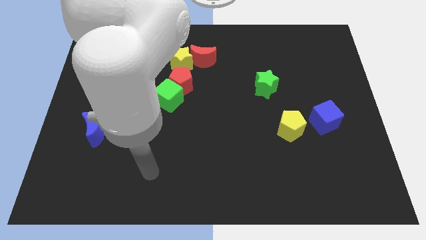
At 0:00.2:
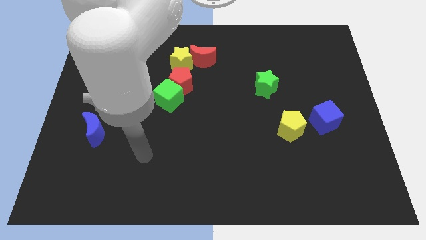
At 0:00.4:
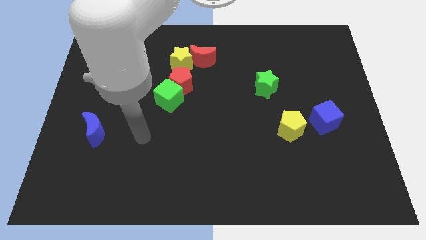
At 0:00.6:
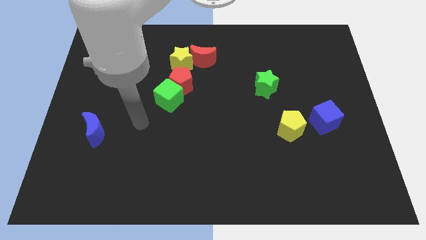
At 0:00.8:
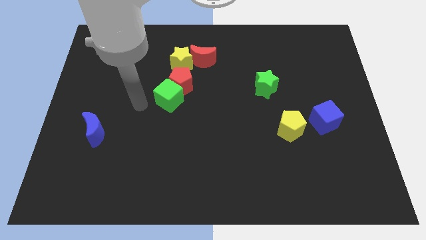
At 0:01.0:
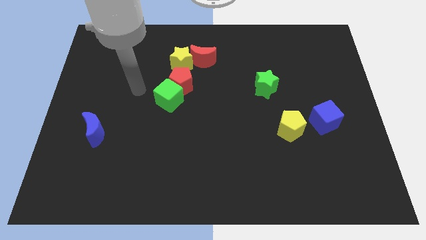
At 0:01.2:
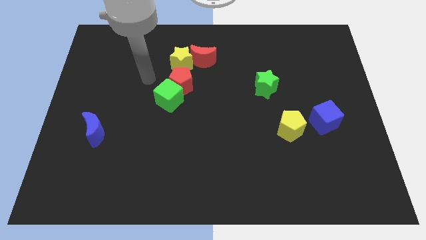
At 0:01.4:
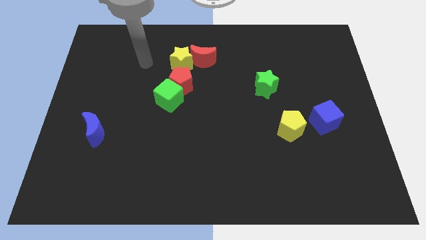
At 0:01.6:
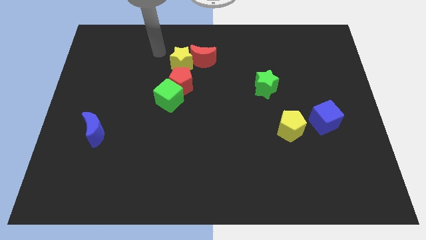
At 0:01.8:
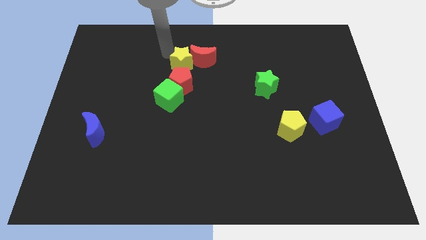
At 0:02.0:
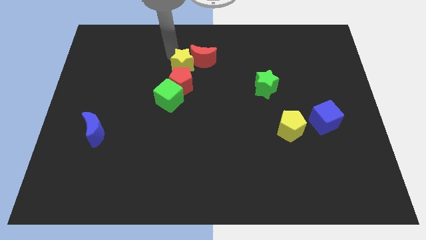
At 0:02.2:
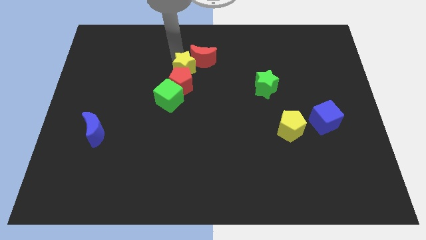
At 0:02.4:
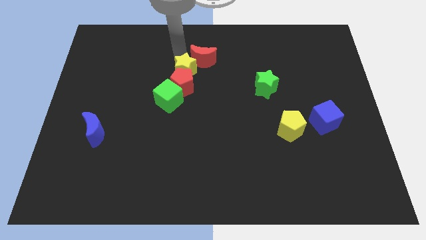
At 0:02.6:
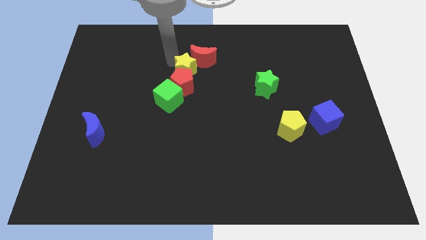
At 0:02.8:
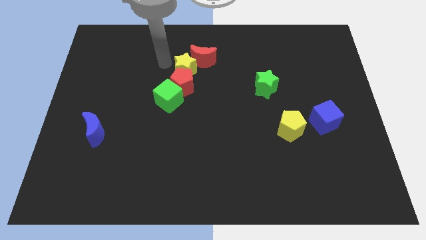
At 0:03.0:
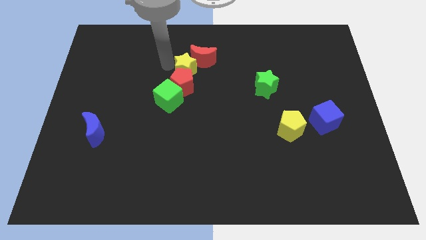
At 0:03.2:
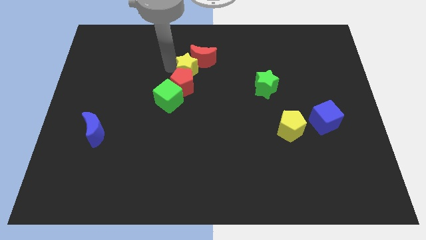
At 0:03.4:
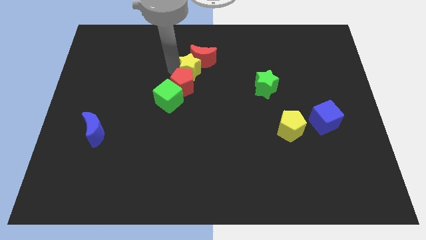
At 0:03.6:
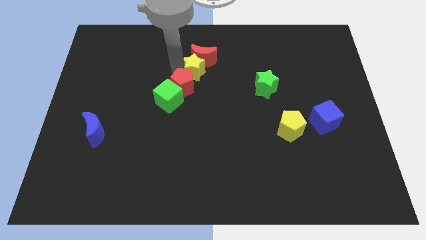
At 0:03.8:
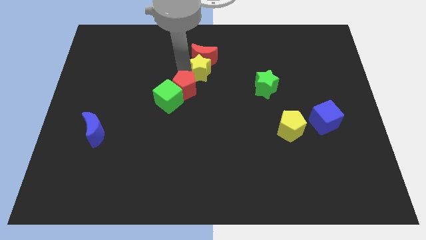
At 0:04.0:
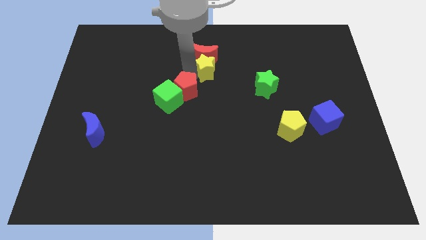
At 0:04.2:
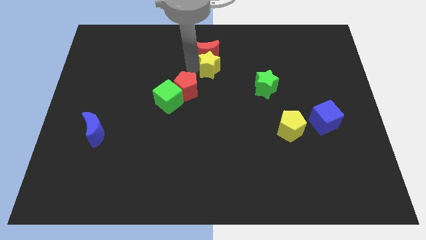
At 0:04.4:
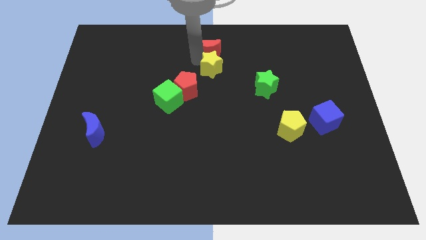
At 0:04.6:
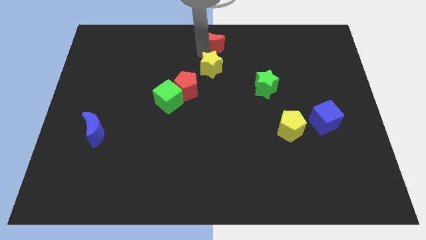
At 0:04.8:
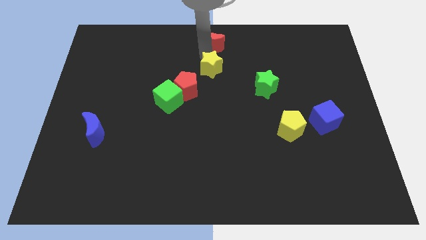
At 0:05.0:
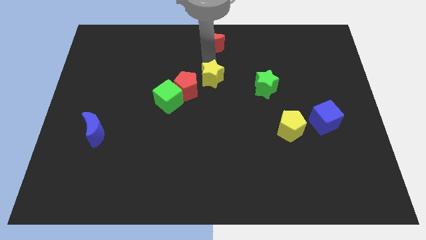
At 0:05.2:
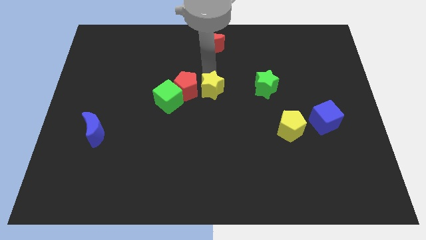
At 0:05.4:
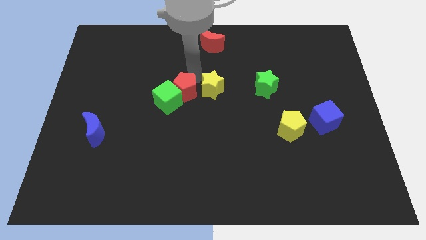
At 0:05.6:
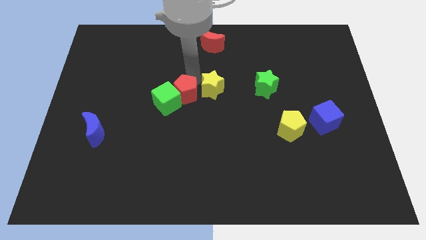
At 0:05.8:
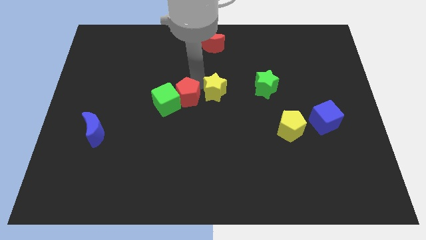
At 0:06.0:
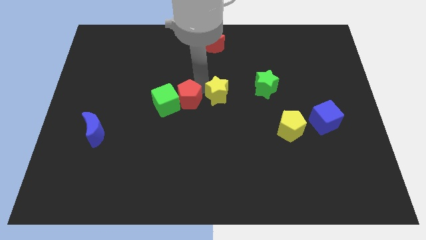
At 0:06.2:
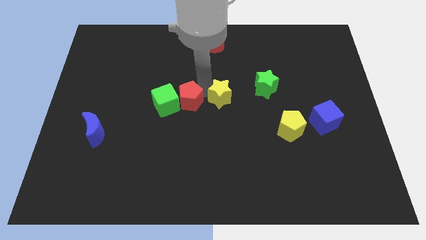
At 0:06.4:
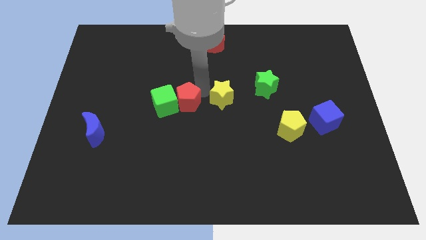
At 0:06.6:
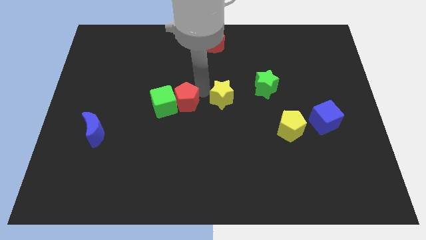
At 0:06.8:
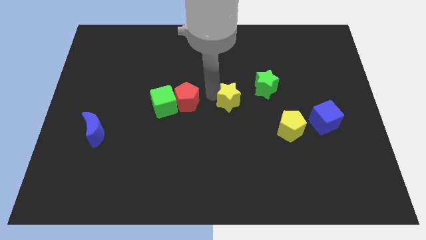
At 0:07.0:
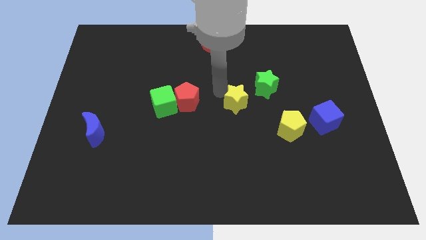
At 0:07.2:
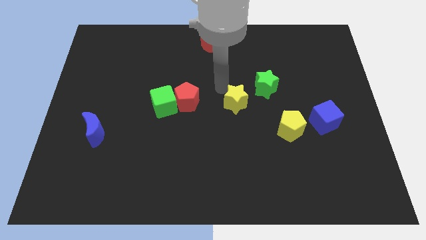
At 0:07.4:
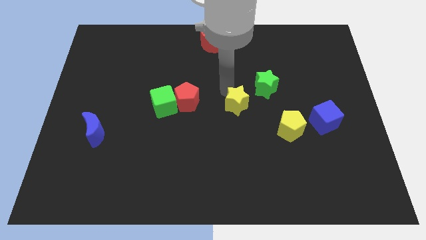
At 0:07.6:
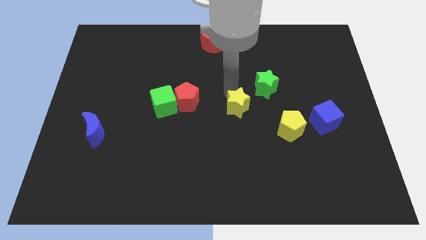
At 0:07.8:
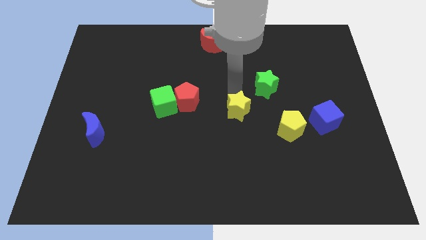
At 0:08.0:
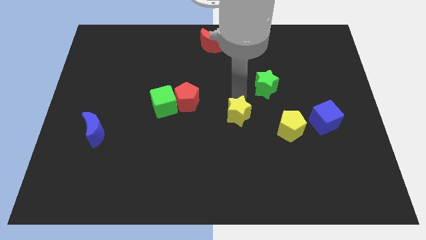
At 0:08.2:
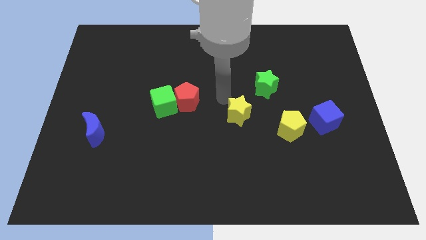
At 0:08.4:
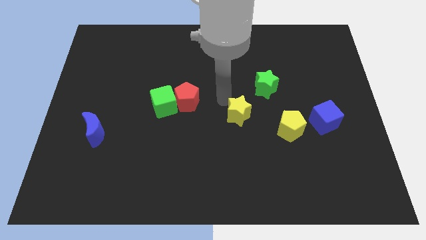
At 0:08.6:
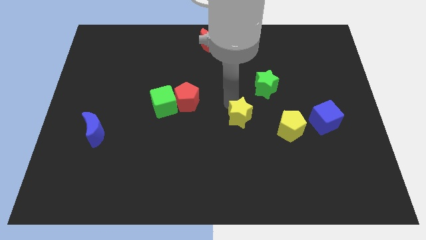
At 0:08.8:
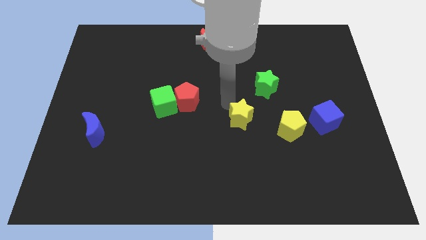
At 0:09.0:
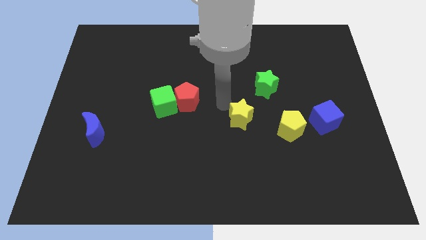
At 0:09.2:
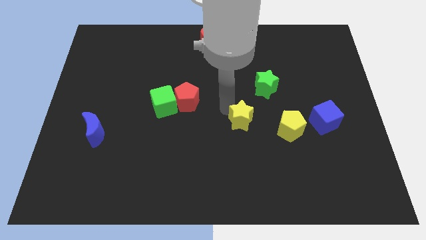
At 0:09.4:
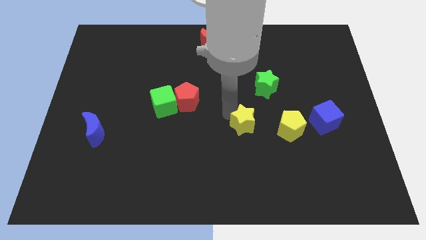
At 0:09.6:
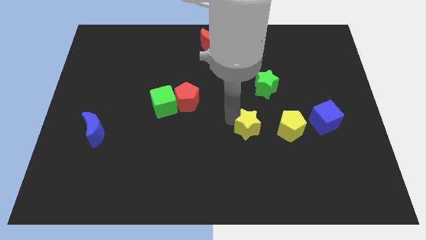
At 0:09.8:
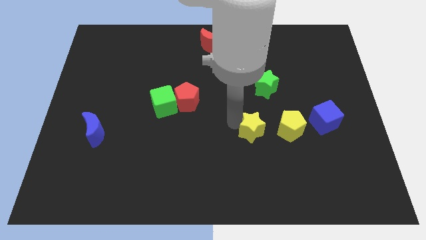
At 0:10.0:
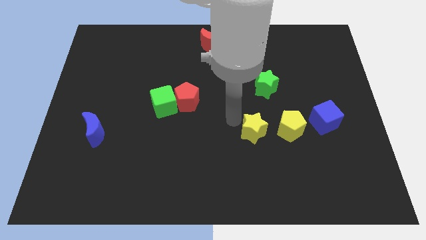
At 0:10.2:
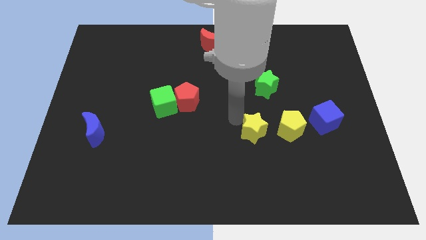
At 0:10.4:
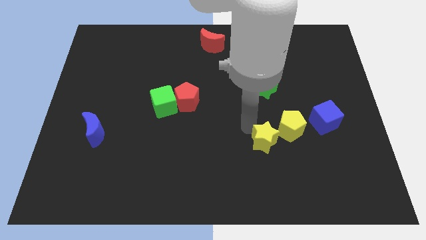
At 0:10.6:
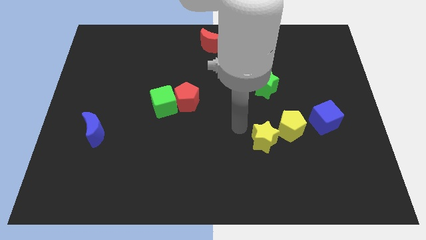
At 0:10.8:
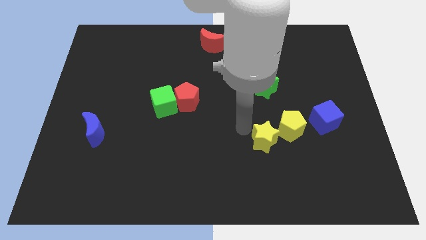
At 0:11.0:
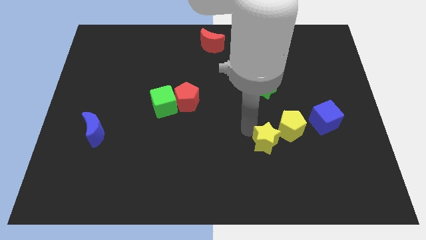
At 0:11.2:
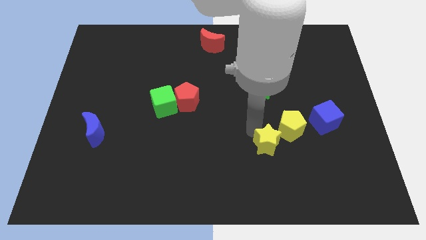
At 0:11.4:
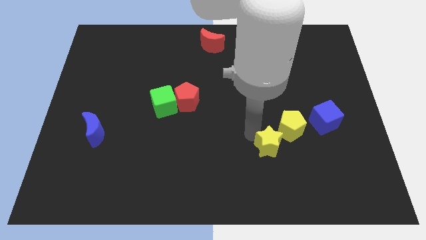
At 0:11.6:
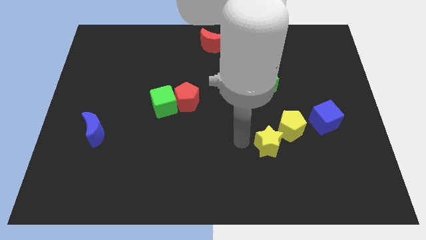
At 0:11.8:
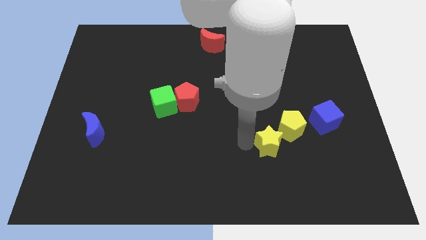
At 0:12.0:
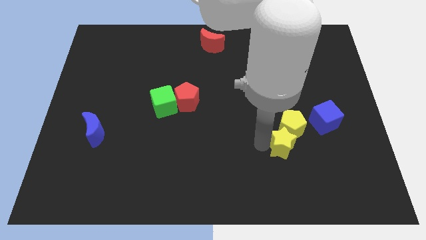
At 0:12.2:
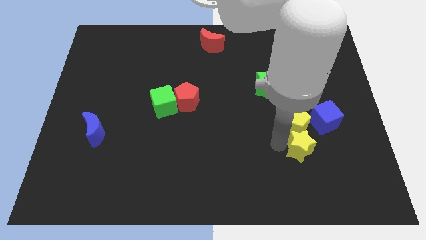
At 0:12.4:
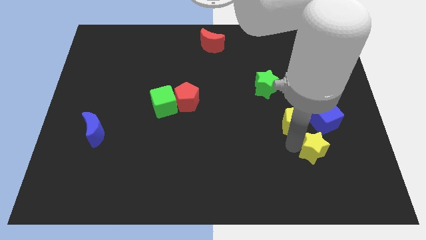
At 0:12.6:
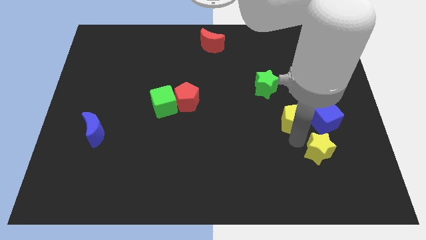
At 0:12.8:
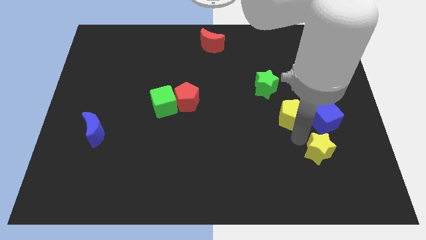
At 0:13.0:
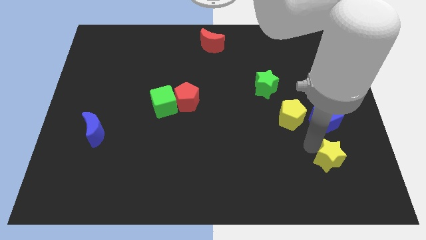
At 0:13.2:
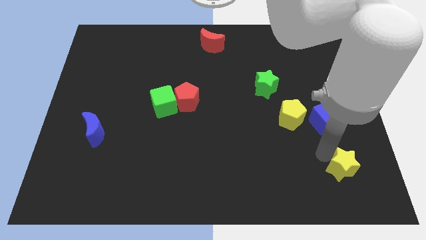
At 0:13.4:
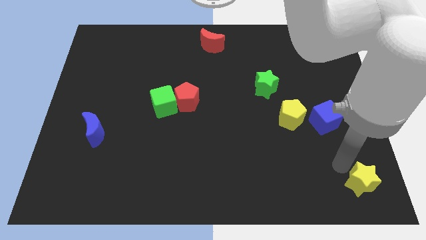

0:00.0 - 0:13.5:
put the yellow star to the lower right corner
